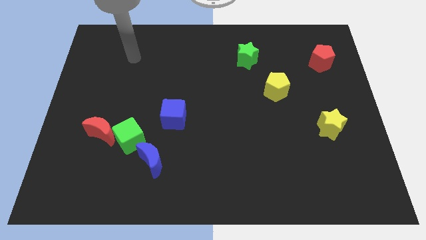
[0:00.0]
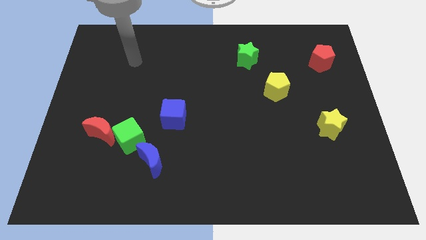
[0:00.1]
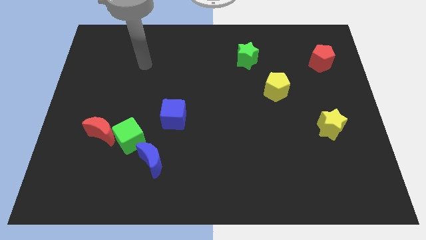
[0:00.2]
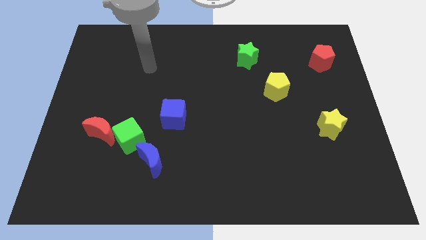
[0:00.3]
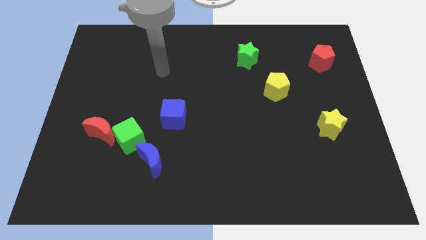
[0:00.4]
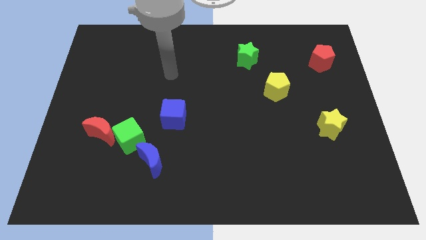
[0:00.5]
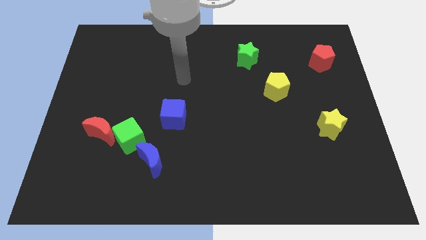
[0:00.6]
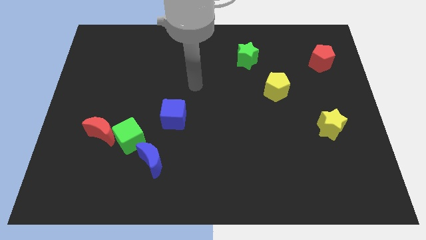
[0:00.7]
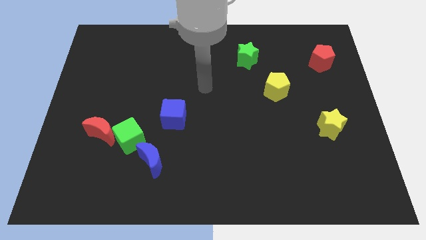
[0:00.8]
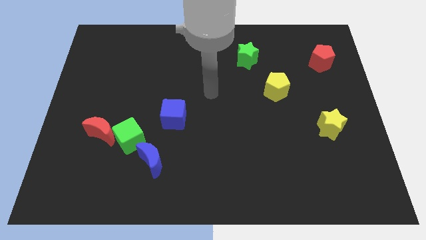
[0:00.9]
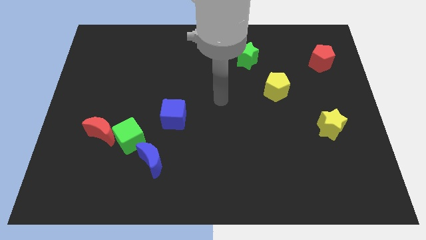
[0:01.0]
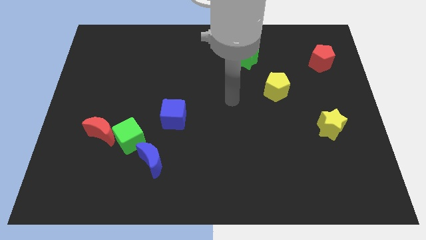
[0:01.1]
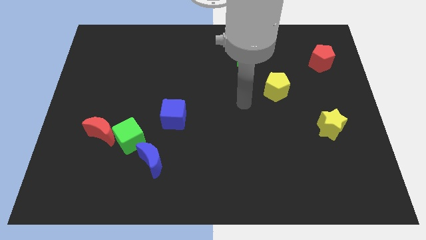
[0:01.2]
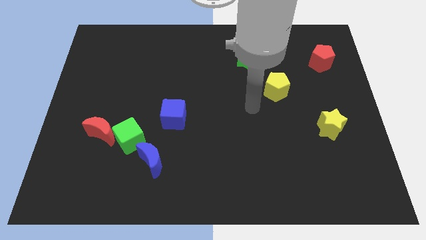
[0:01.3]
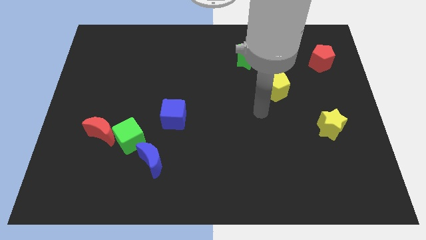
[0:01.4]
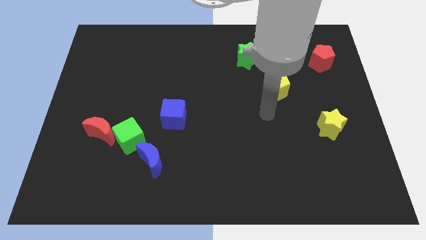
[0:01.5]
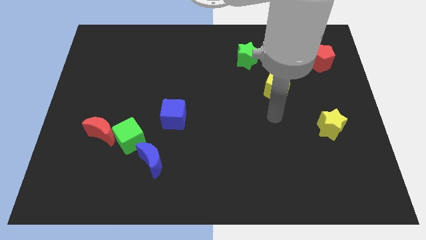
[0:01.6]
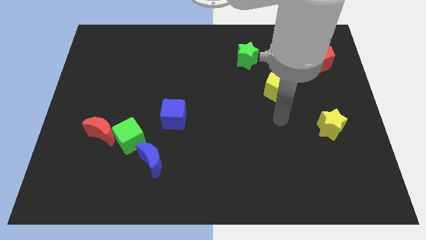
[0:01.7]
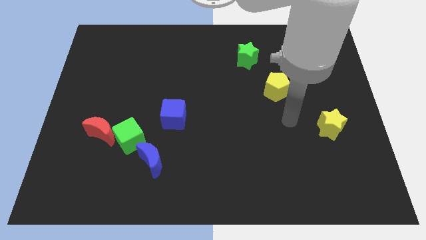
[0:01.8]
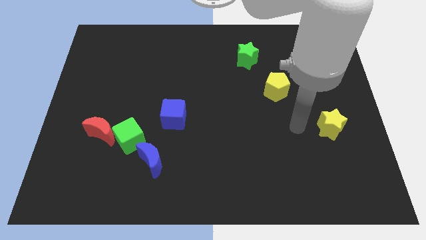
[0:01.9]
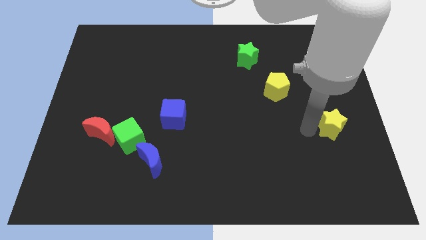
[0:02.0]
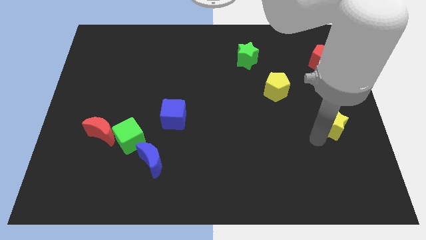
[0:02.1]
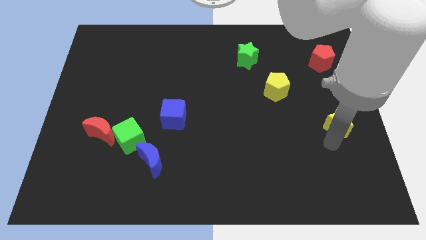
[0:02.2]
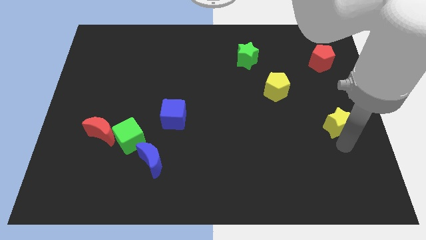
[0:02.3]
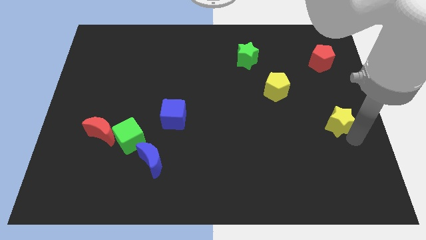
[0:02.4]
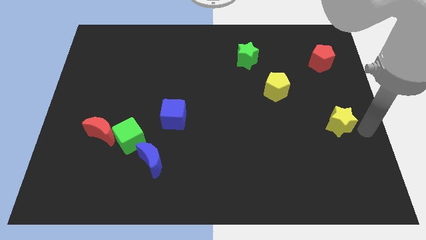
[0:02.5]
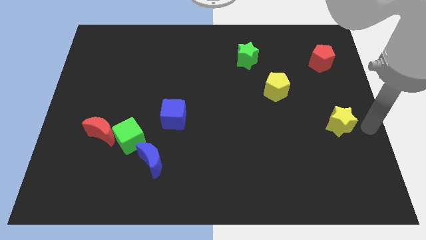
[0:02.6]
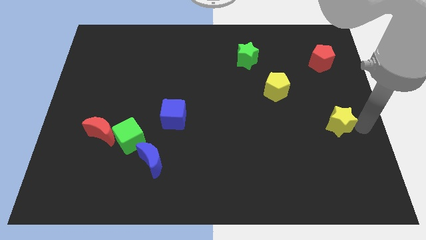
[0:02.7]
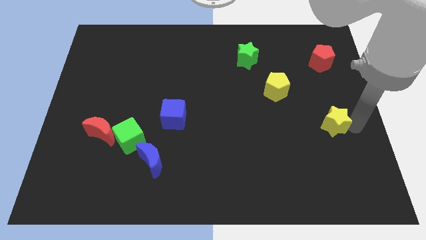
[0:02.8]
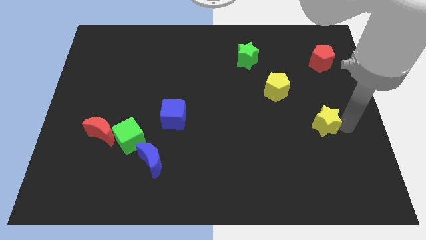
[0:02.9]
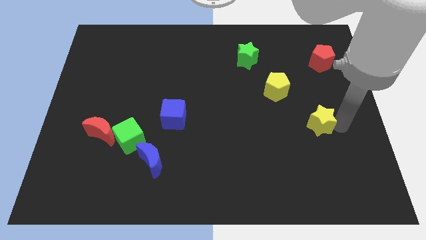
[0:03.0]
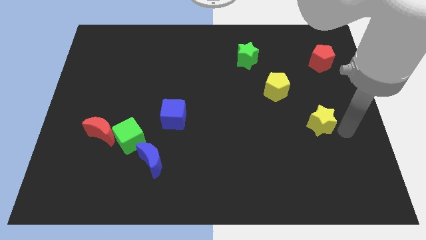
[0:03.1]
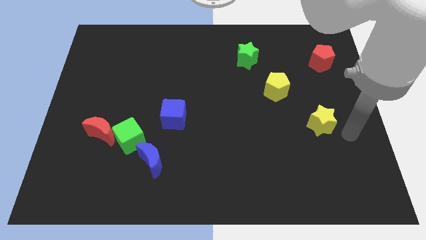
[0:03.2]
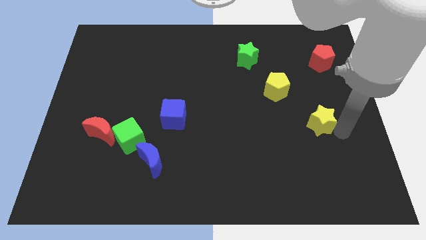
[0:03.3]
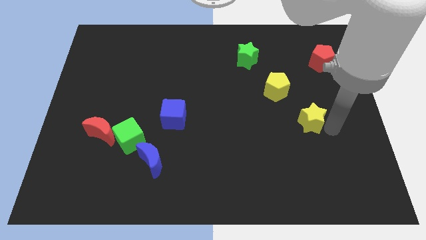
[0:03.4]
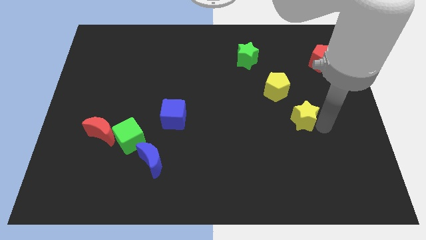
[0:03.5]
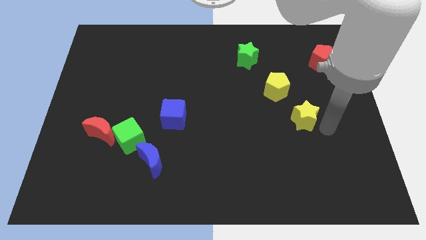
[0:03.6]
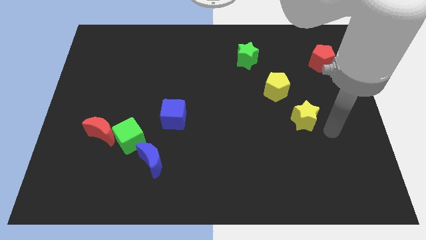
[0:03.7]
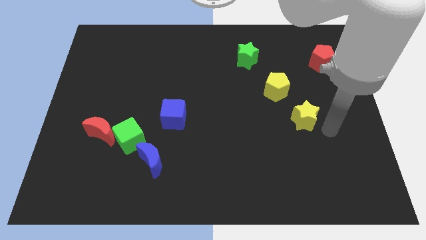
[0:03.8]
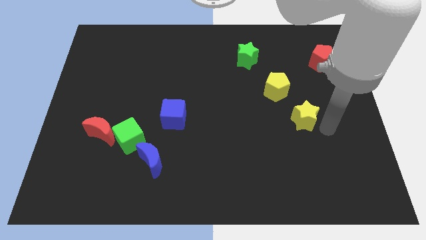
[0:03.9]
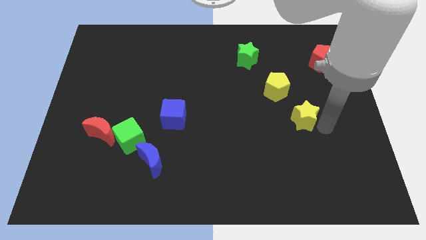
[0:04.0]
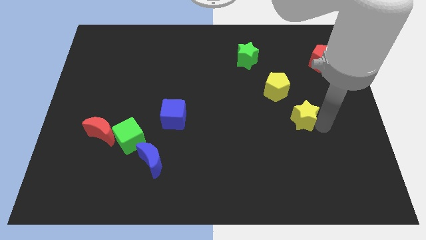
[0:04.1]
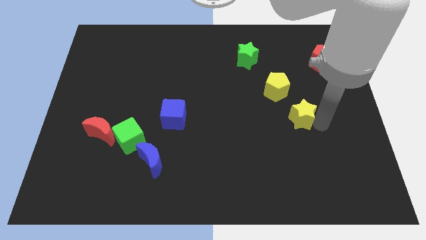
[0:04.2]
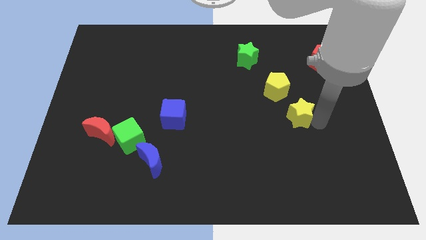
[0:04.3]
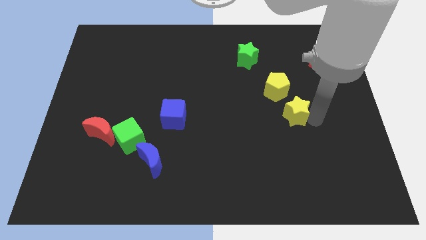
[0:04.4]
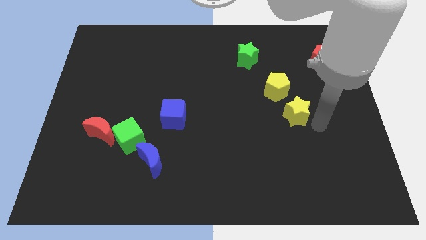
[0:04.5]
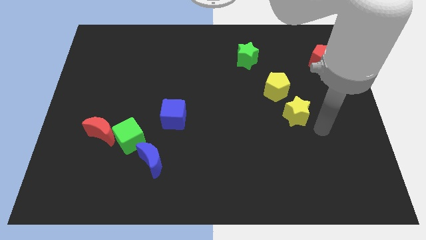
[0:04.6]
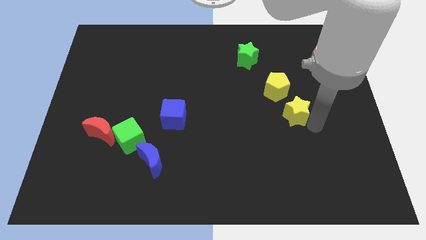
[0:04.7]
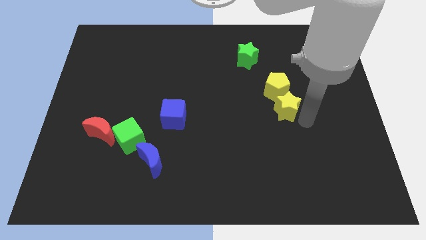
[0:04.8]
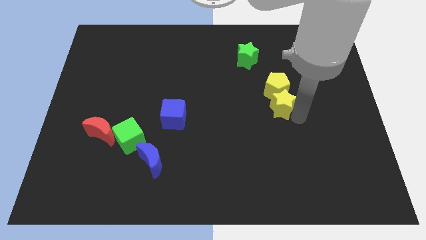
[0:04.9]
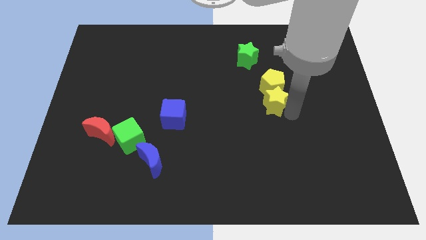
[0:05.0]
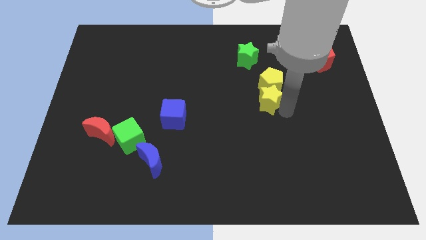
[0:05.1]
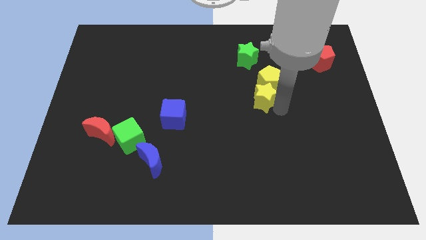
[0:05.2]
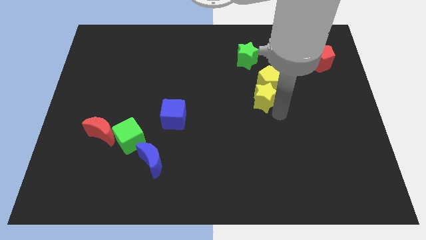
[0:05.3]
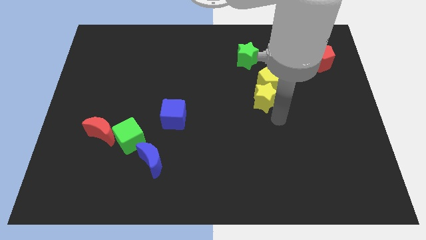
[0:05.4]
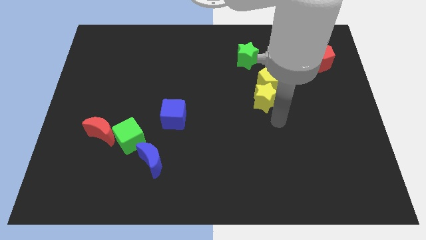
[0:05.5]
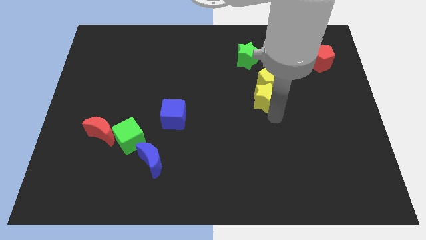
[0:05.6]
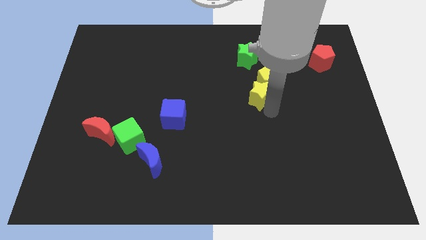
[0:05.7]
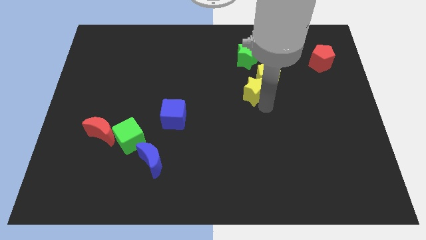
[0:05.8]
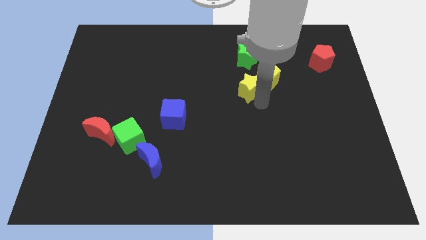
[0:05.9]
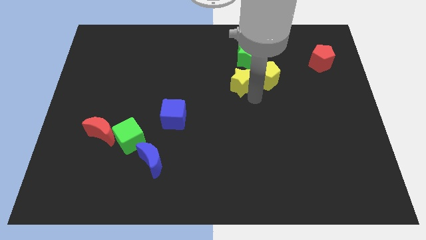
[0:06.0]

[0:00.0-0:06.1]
move the yellow star upwards and to the left diagonally

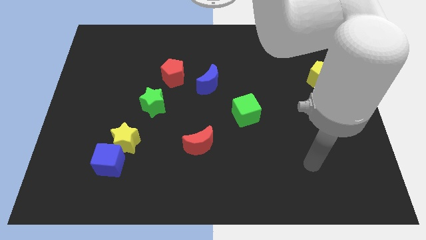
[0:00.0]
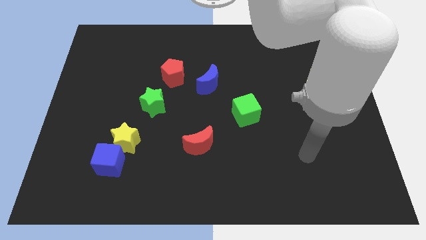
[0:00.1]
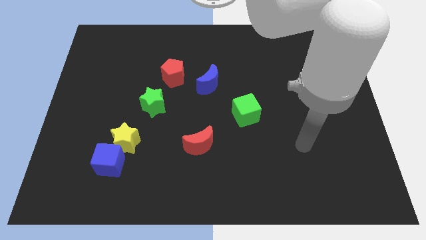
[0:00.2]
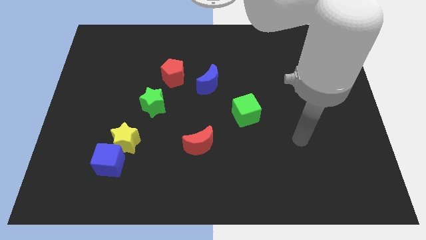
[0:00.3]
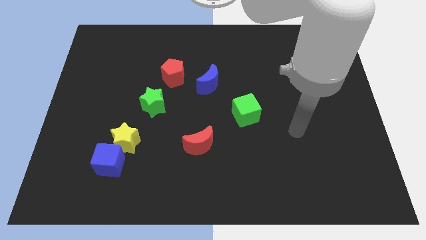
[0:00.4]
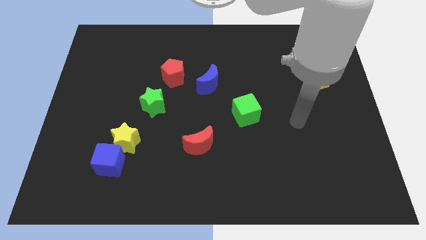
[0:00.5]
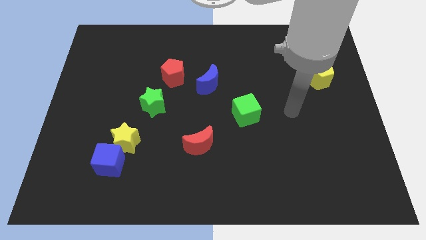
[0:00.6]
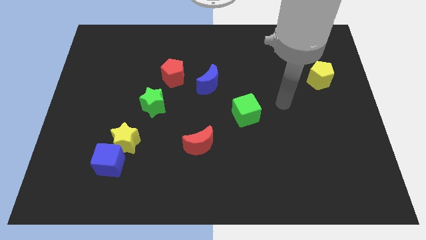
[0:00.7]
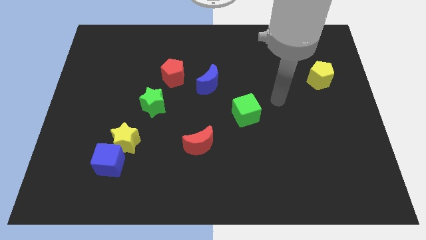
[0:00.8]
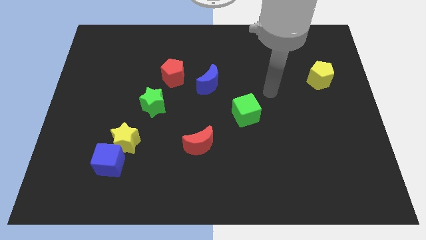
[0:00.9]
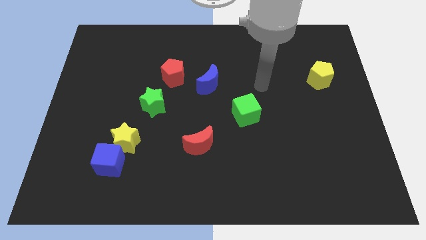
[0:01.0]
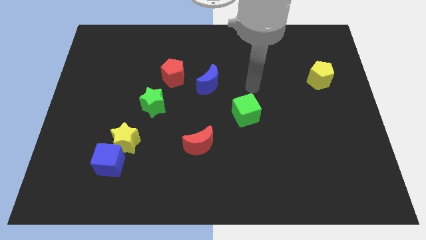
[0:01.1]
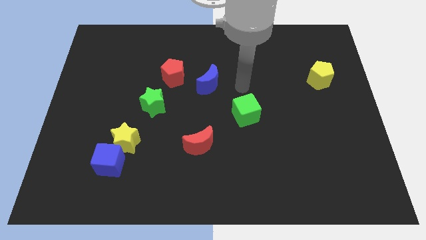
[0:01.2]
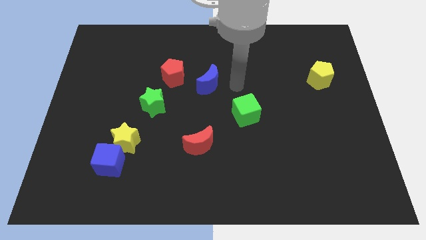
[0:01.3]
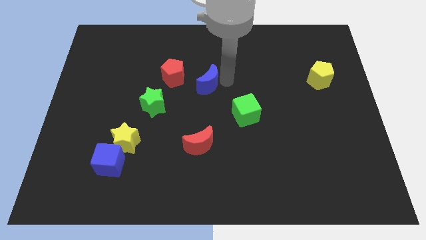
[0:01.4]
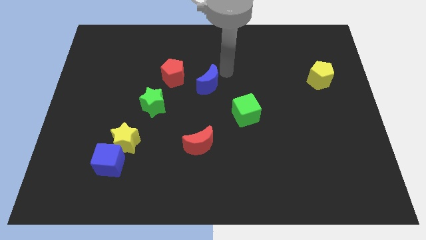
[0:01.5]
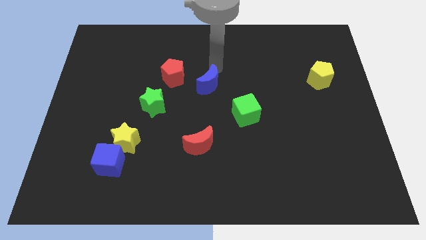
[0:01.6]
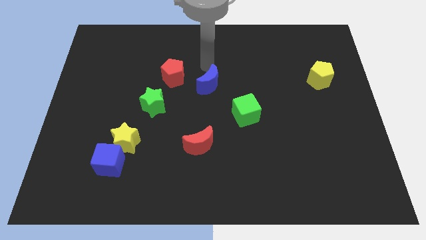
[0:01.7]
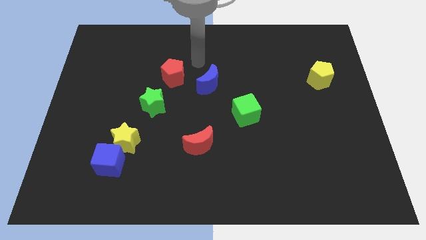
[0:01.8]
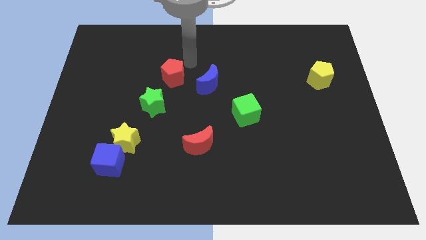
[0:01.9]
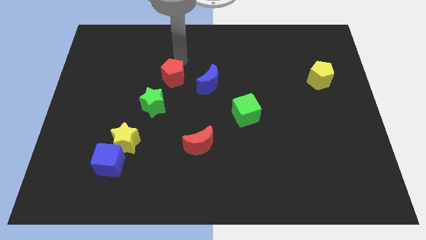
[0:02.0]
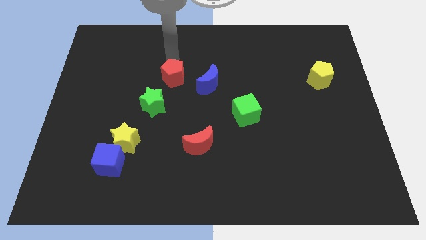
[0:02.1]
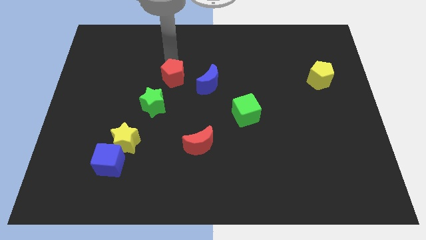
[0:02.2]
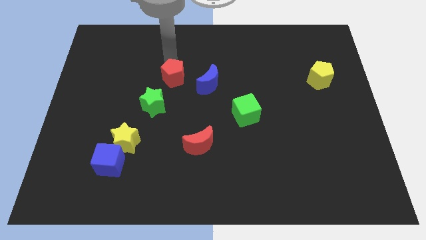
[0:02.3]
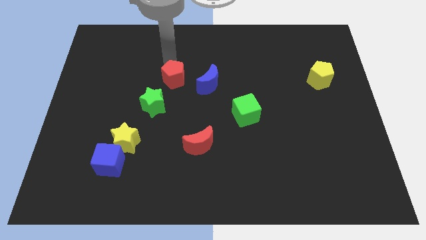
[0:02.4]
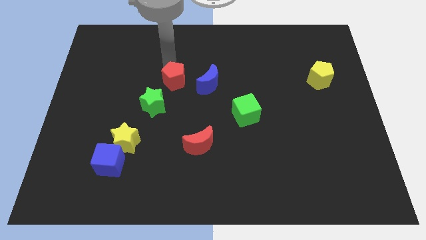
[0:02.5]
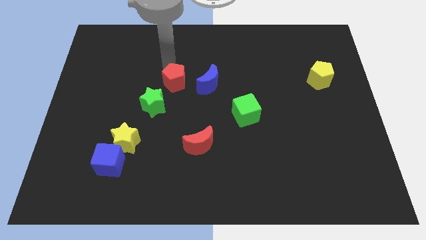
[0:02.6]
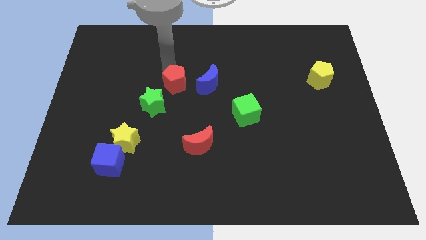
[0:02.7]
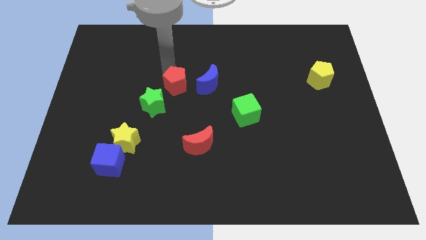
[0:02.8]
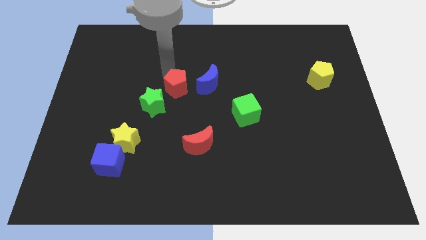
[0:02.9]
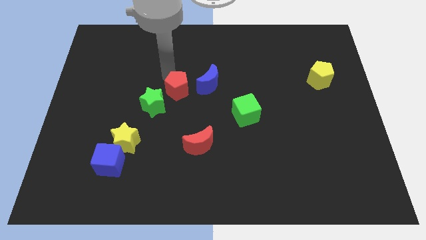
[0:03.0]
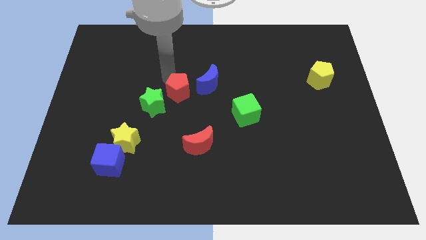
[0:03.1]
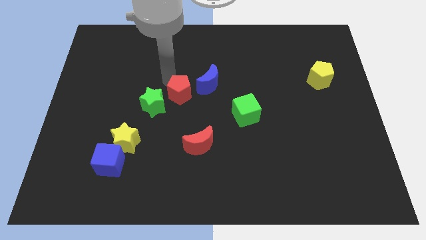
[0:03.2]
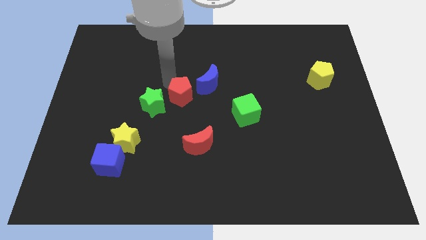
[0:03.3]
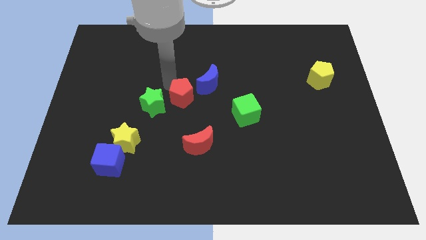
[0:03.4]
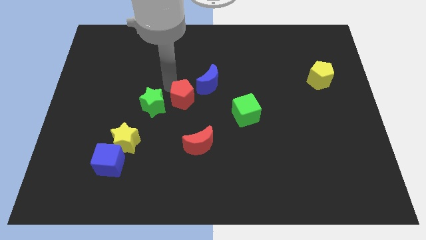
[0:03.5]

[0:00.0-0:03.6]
slightly move the red pentagon down
